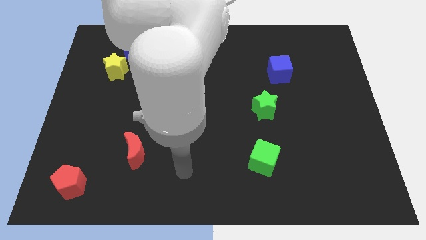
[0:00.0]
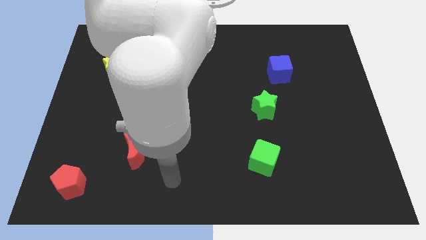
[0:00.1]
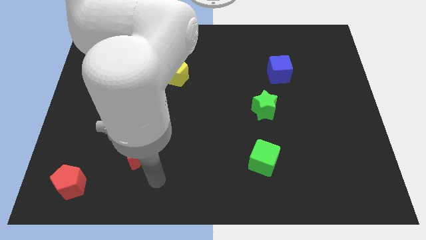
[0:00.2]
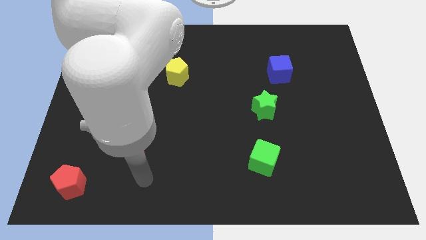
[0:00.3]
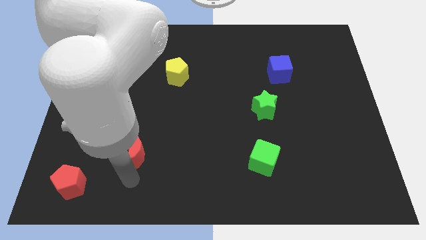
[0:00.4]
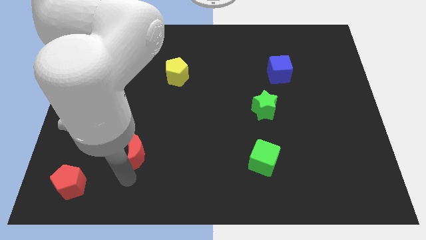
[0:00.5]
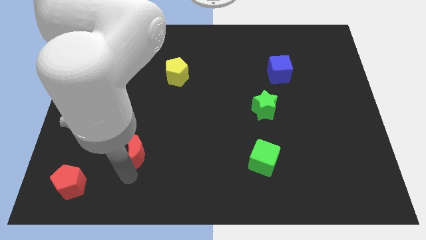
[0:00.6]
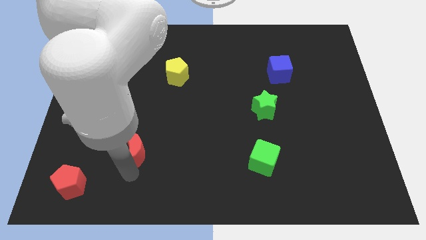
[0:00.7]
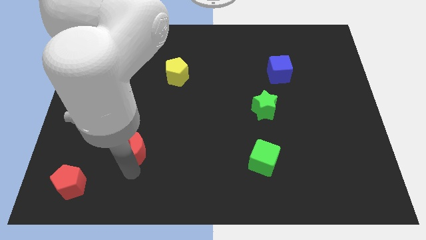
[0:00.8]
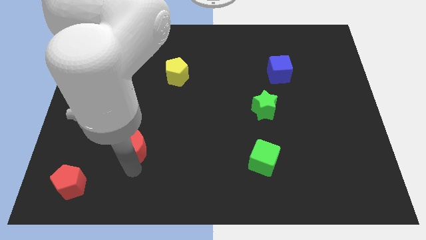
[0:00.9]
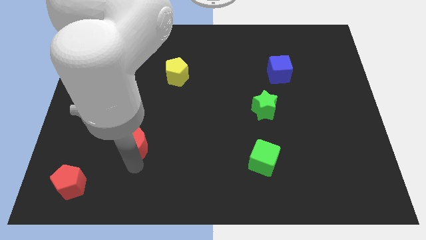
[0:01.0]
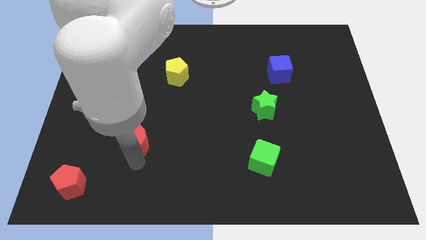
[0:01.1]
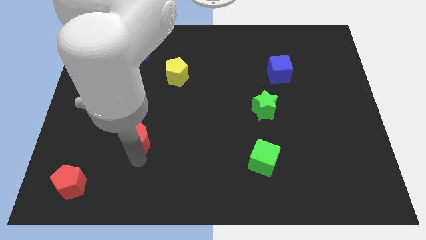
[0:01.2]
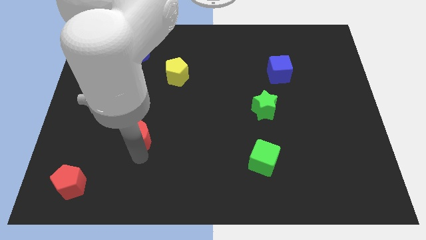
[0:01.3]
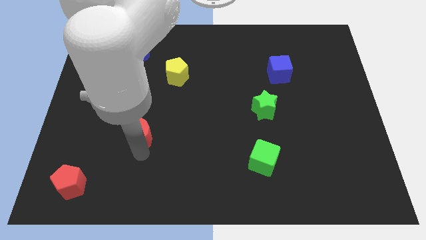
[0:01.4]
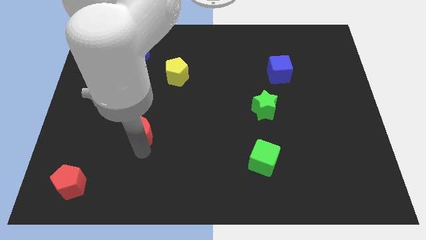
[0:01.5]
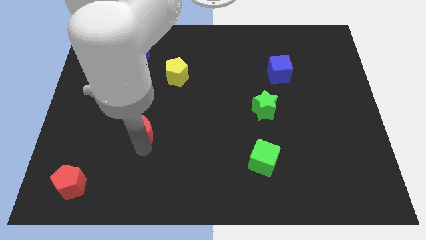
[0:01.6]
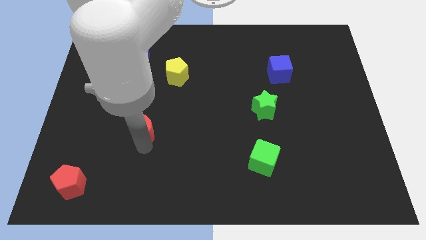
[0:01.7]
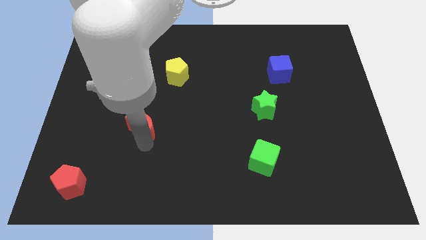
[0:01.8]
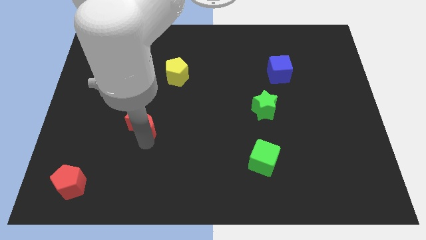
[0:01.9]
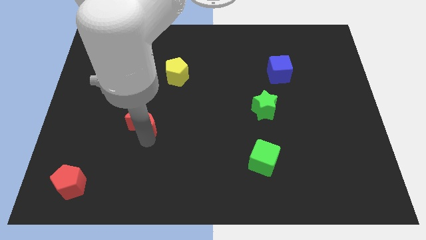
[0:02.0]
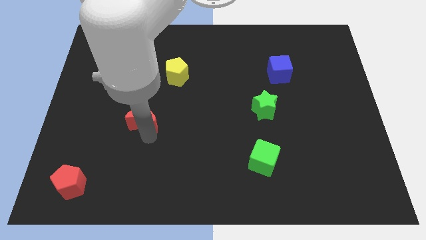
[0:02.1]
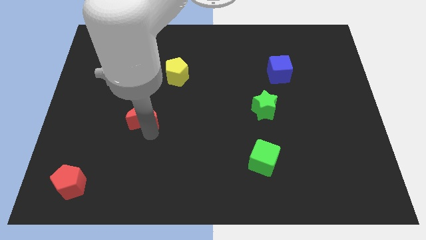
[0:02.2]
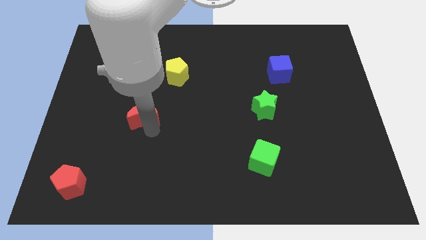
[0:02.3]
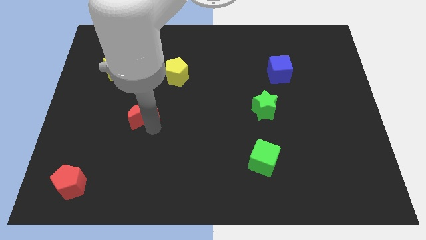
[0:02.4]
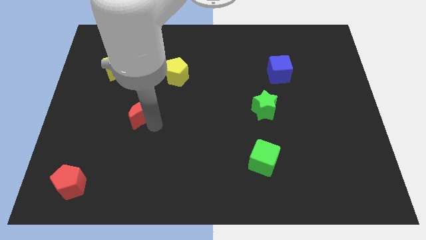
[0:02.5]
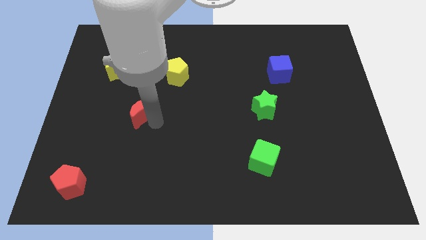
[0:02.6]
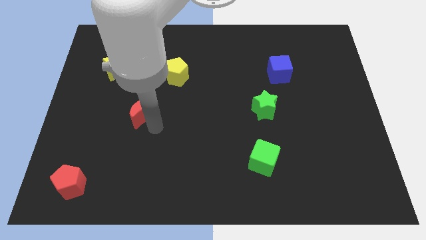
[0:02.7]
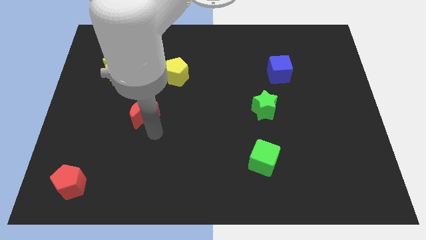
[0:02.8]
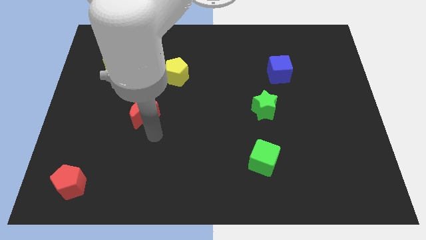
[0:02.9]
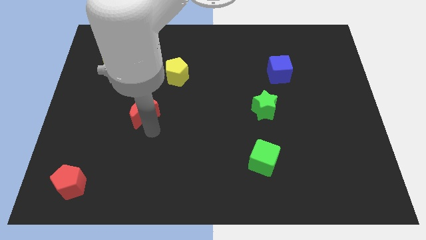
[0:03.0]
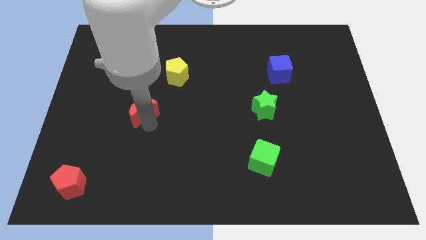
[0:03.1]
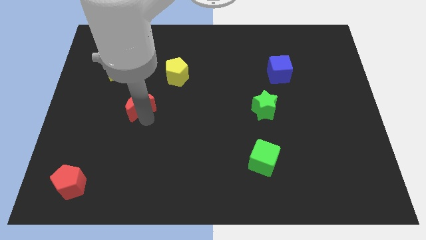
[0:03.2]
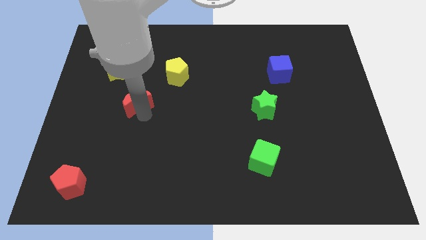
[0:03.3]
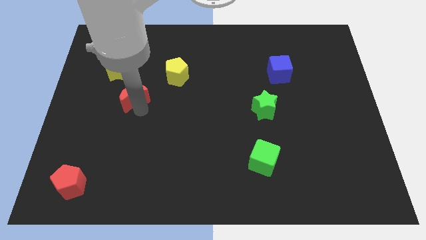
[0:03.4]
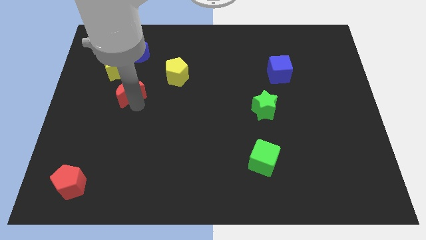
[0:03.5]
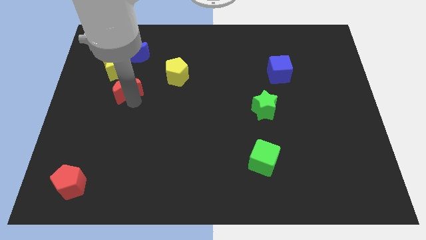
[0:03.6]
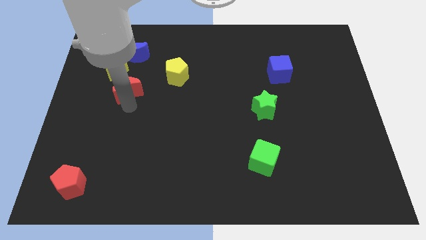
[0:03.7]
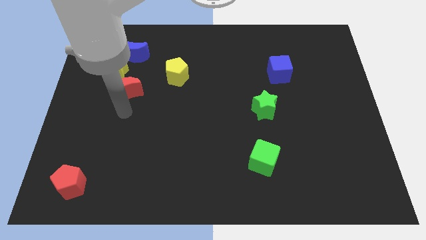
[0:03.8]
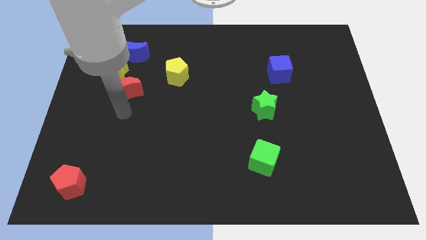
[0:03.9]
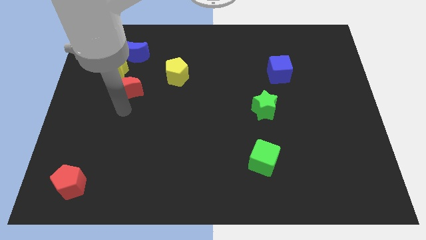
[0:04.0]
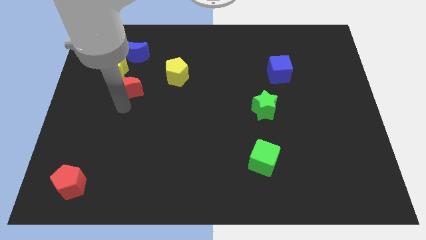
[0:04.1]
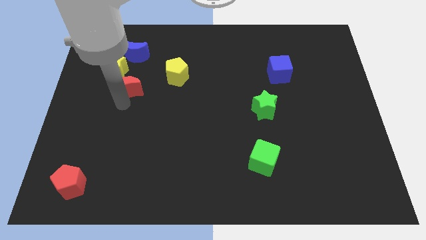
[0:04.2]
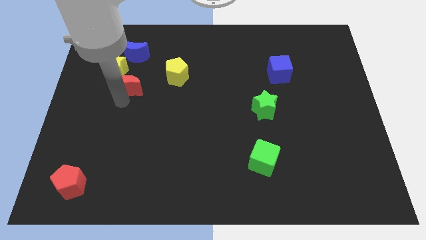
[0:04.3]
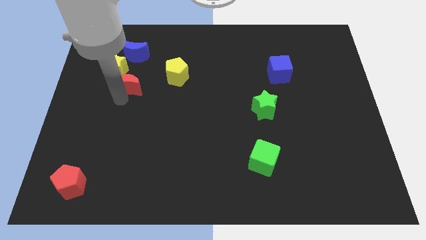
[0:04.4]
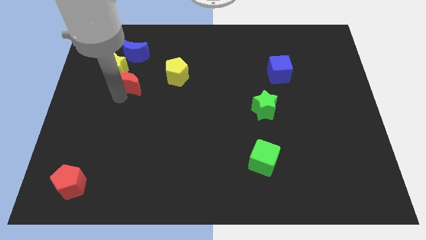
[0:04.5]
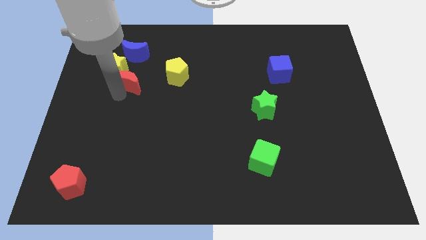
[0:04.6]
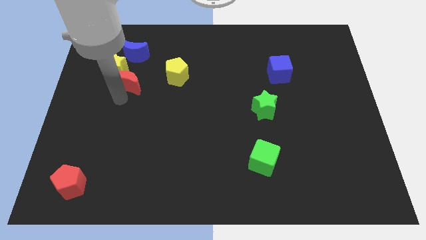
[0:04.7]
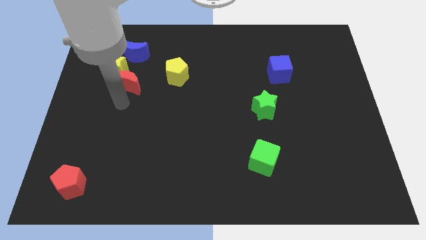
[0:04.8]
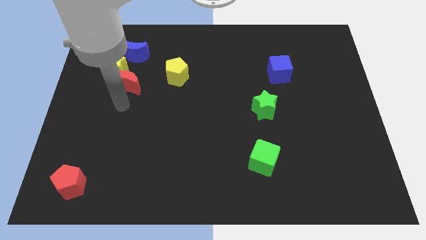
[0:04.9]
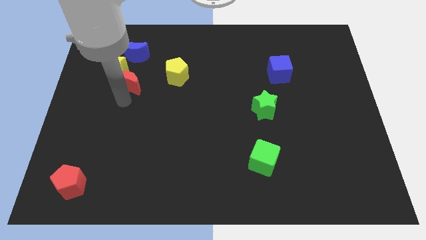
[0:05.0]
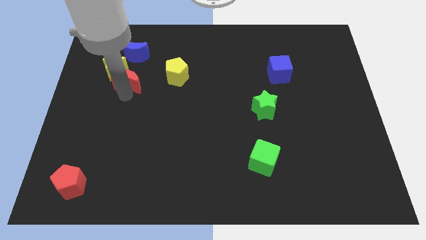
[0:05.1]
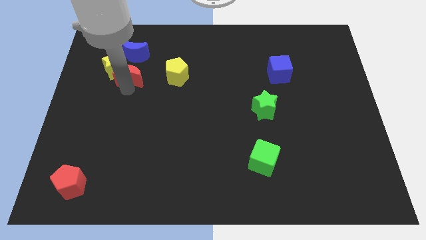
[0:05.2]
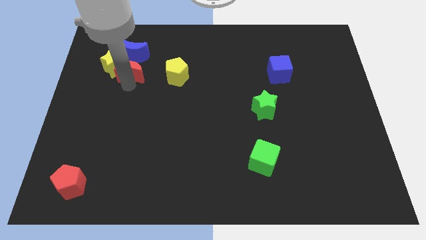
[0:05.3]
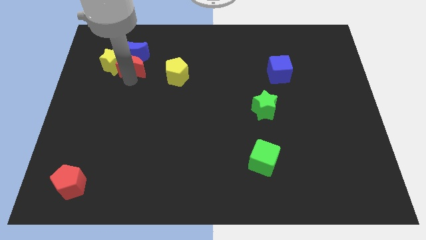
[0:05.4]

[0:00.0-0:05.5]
slide the red moon to the blue moon

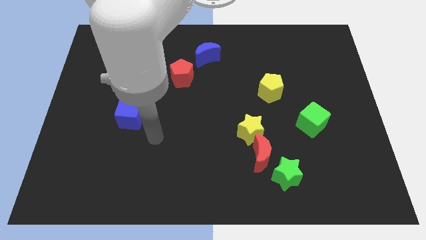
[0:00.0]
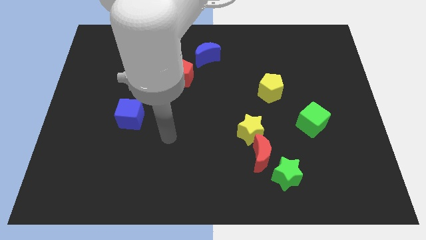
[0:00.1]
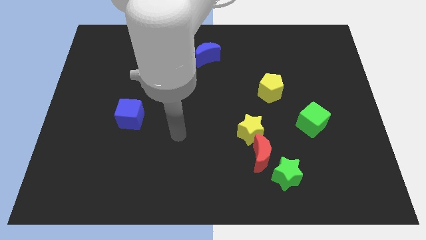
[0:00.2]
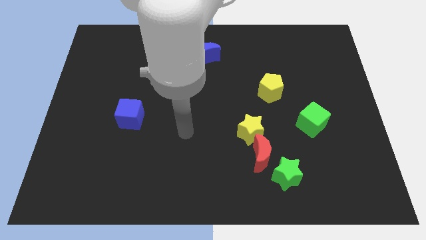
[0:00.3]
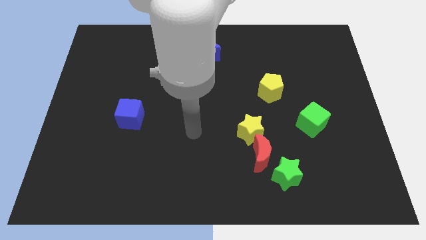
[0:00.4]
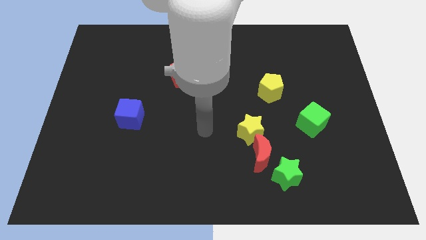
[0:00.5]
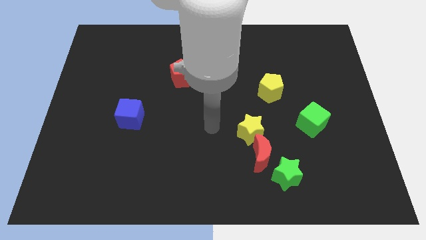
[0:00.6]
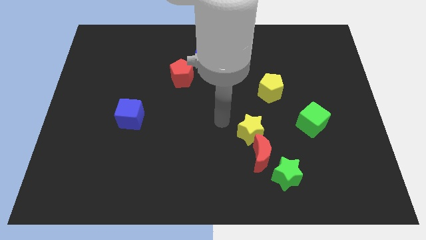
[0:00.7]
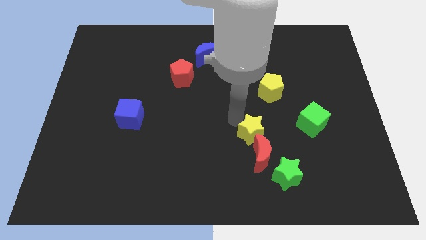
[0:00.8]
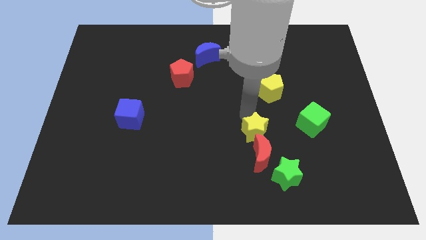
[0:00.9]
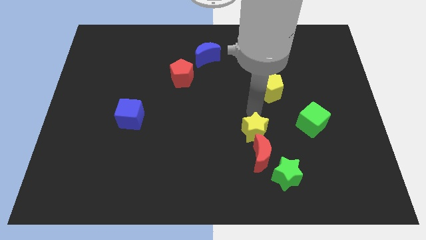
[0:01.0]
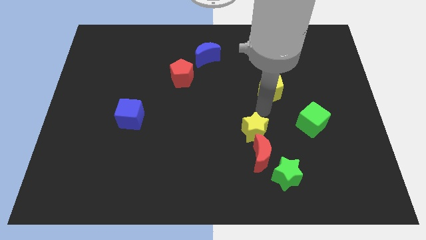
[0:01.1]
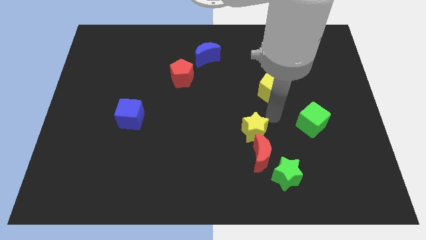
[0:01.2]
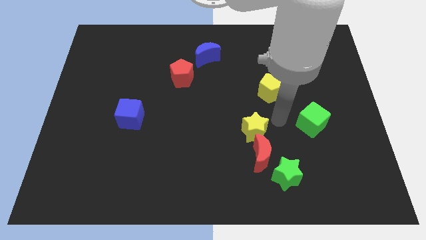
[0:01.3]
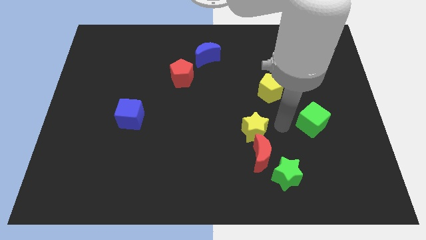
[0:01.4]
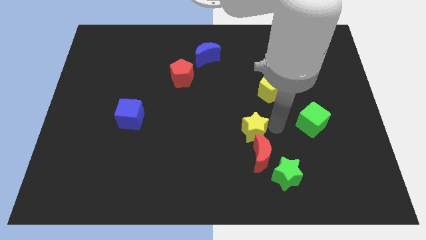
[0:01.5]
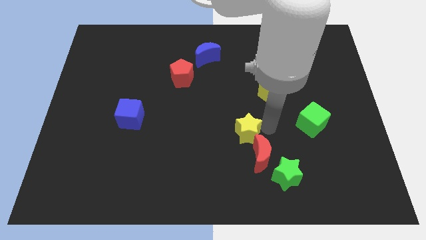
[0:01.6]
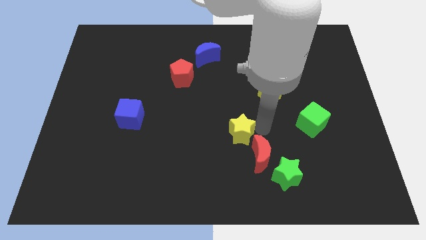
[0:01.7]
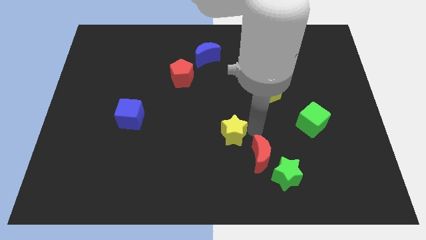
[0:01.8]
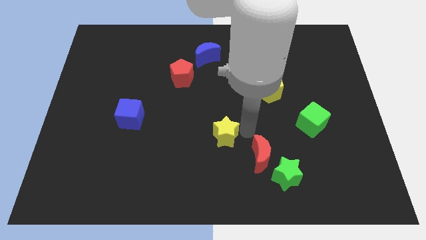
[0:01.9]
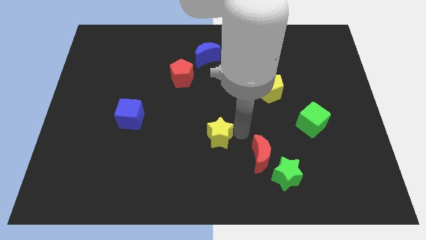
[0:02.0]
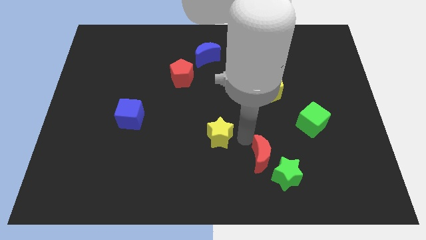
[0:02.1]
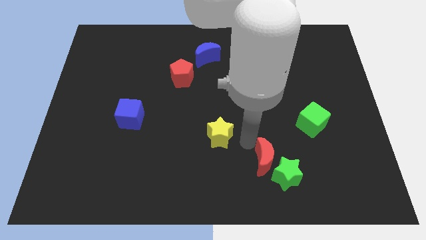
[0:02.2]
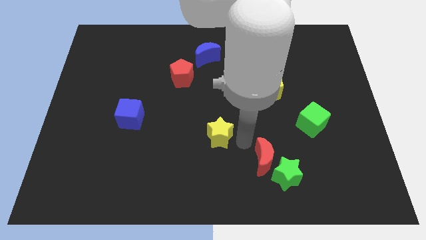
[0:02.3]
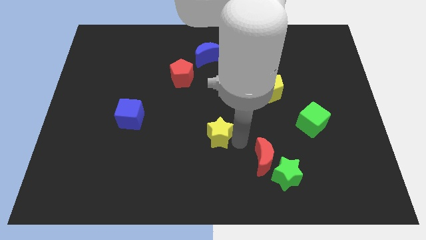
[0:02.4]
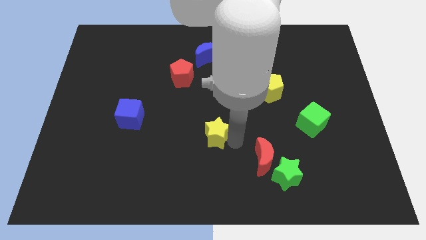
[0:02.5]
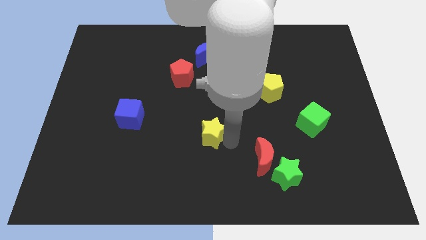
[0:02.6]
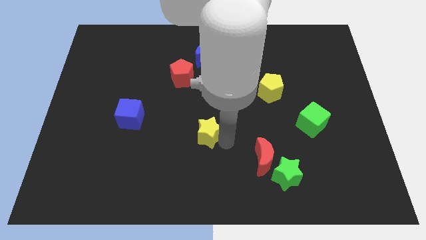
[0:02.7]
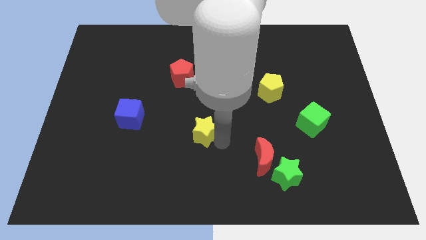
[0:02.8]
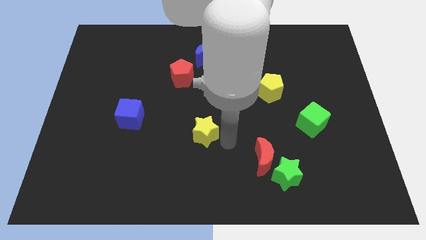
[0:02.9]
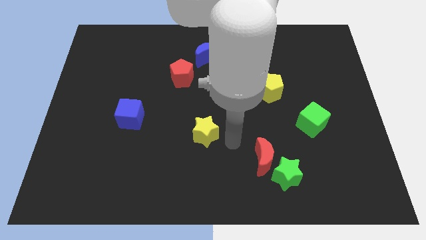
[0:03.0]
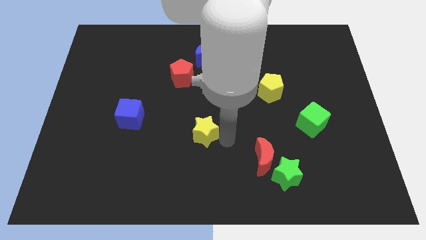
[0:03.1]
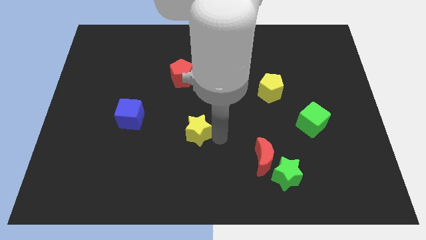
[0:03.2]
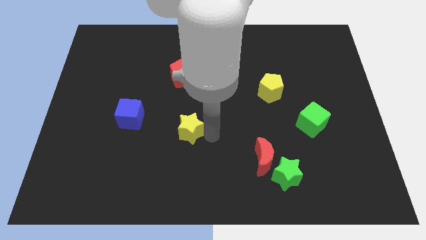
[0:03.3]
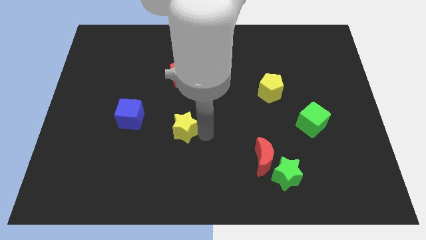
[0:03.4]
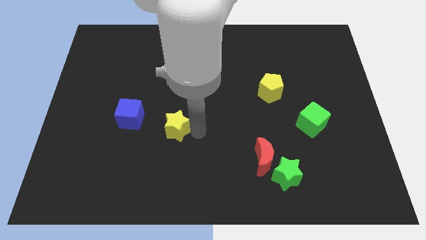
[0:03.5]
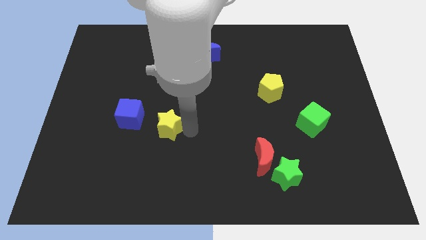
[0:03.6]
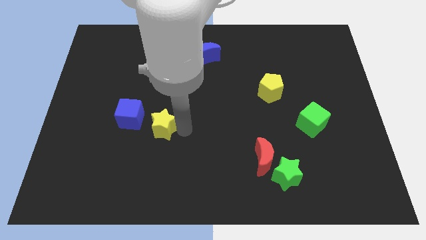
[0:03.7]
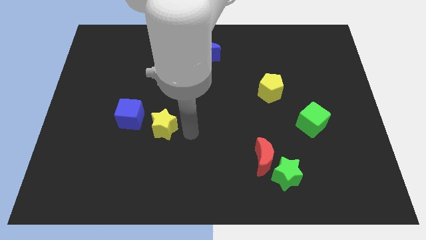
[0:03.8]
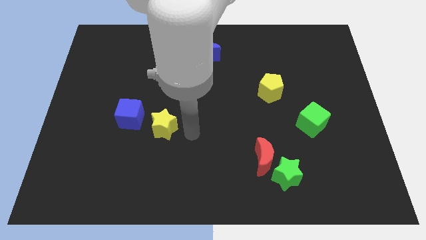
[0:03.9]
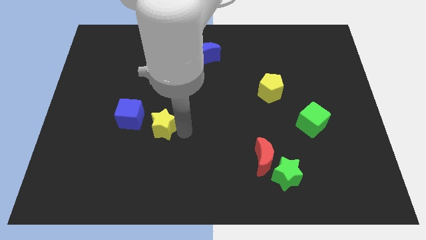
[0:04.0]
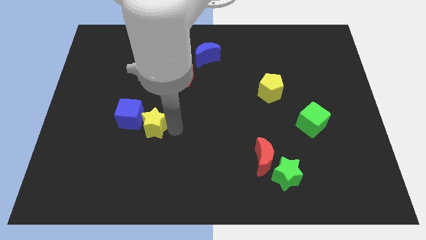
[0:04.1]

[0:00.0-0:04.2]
slide the yellow star close to the blue cube
